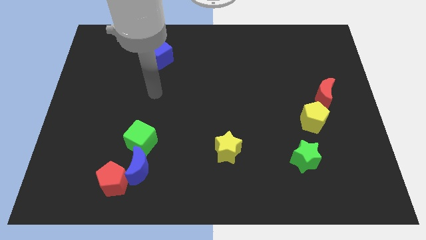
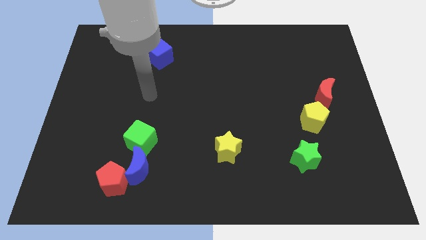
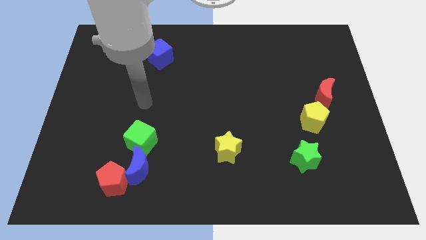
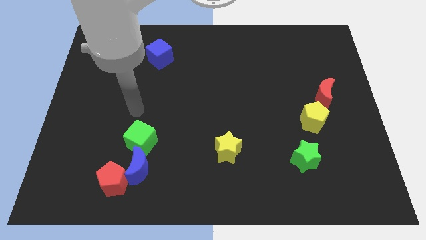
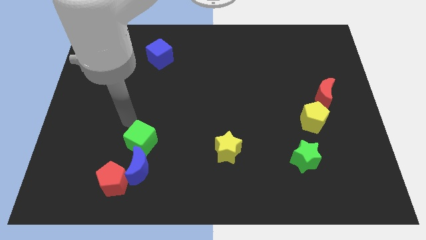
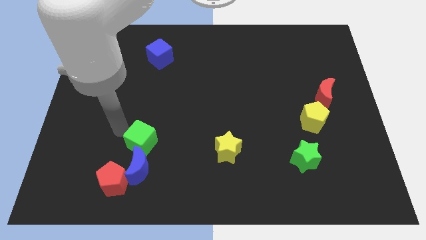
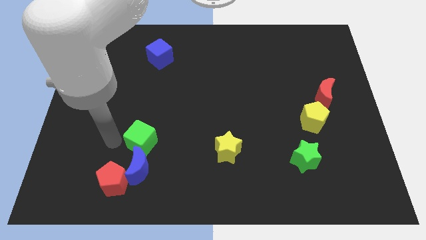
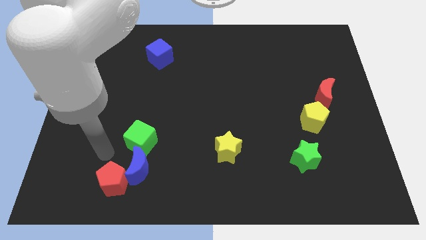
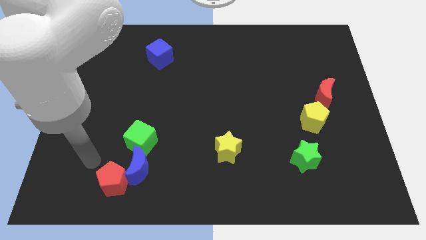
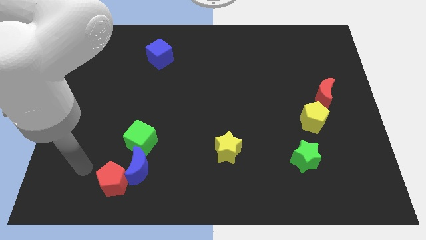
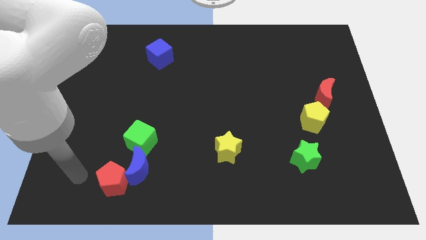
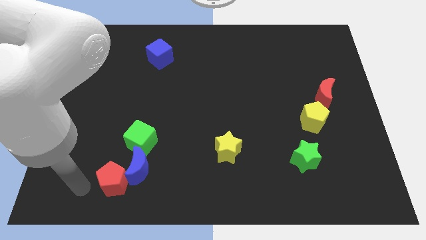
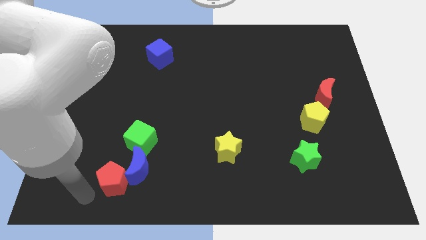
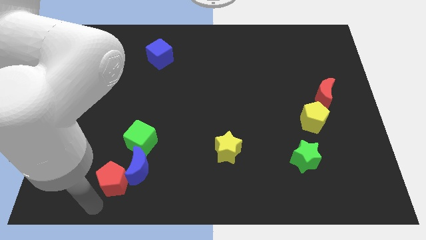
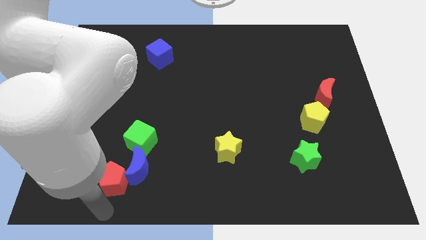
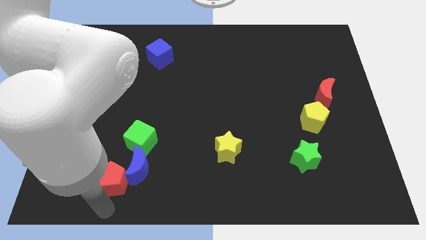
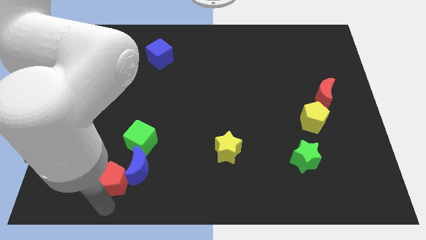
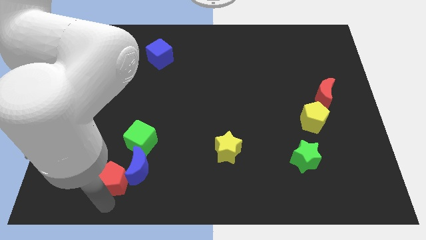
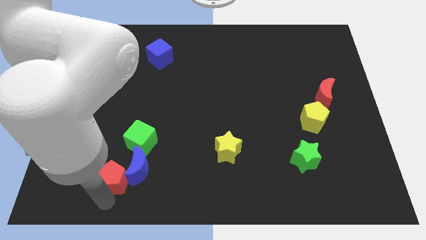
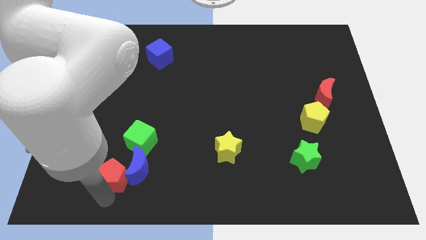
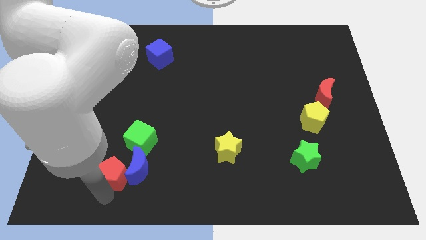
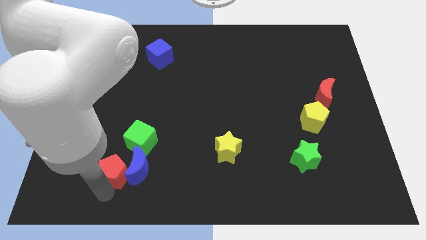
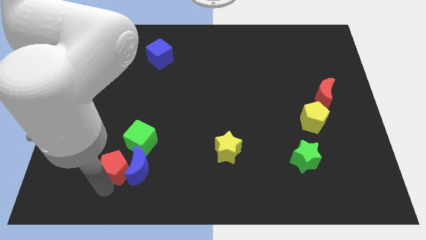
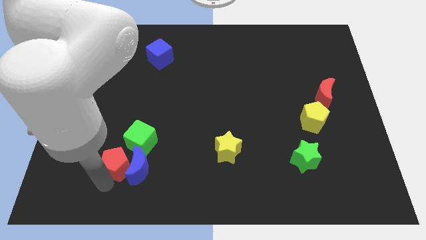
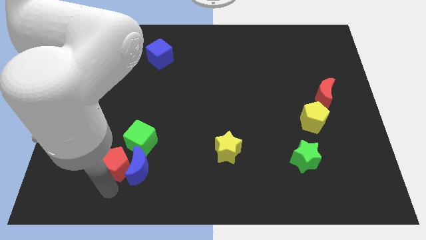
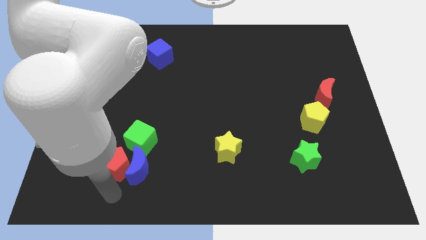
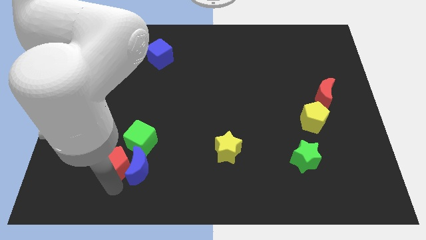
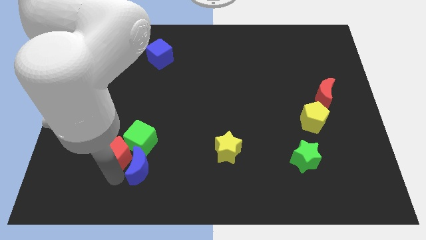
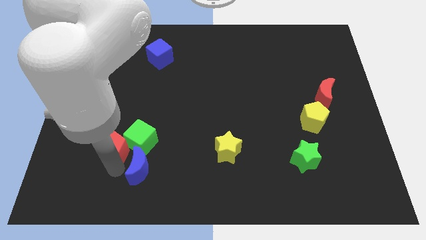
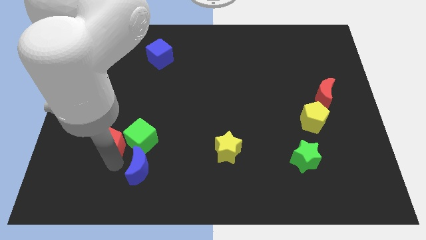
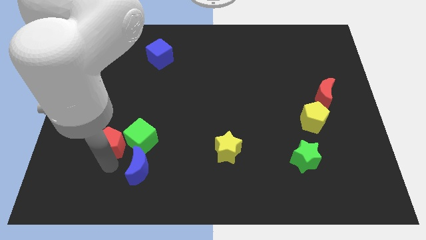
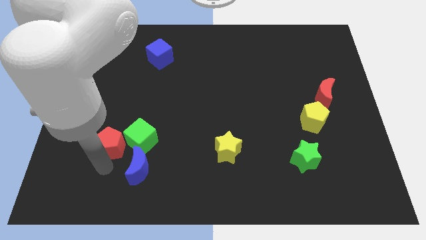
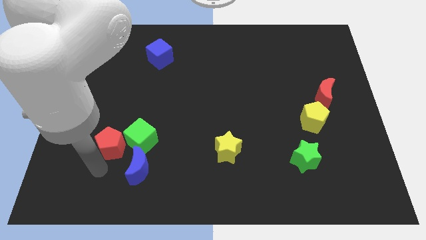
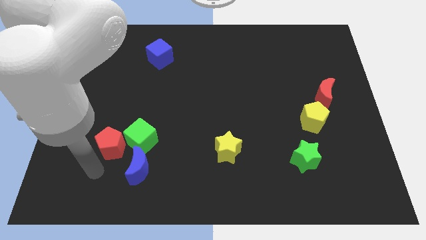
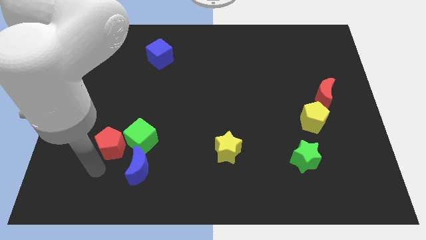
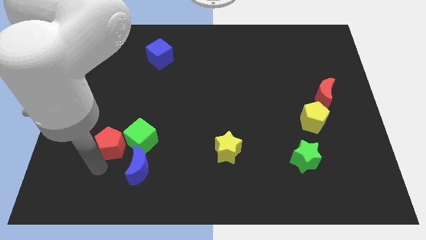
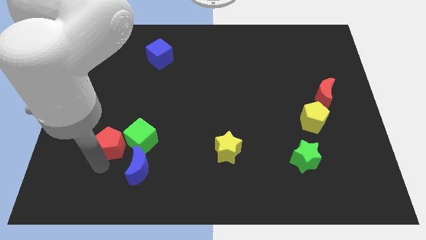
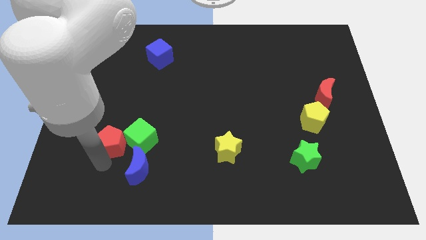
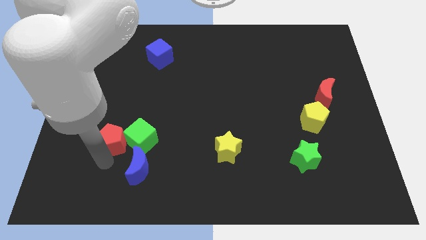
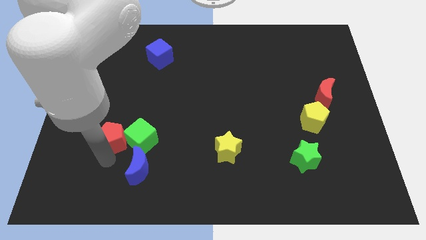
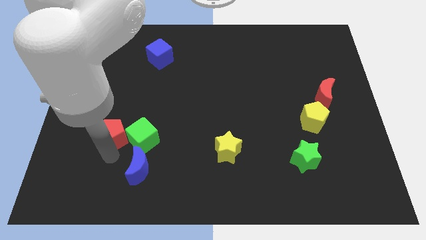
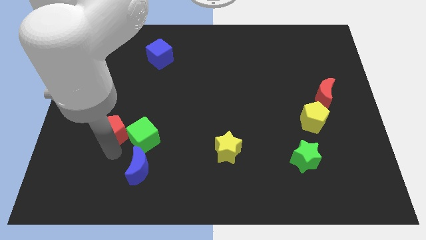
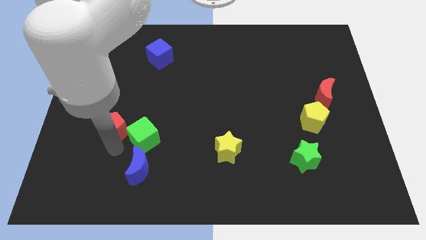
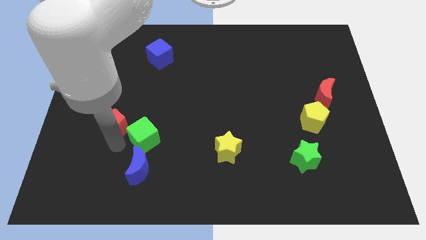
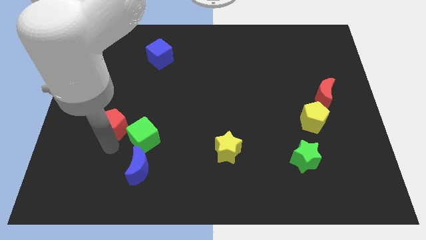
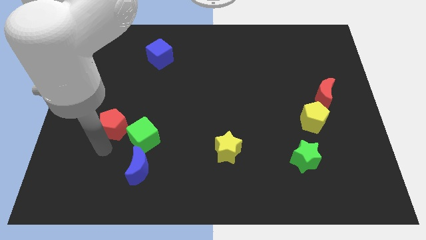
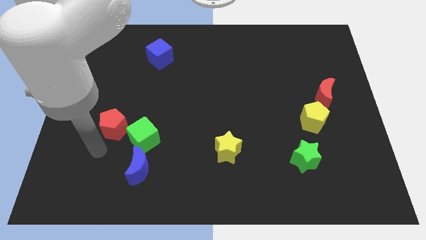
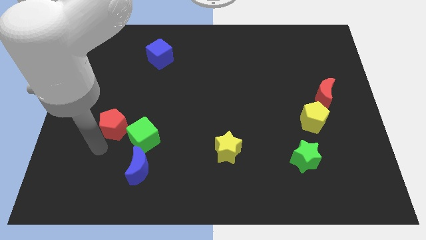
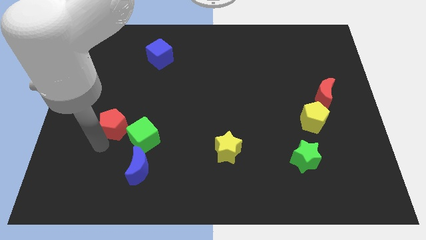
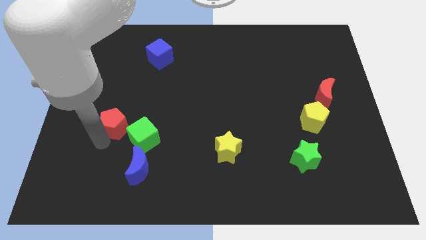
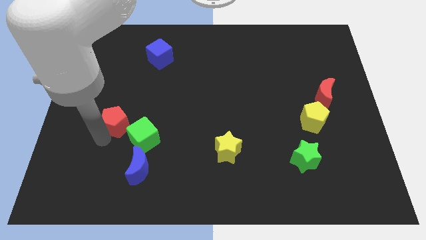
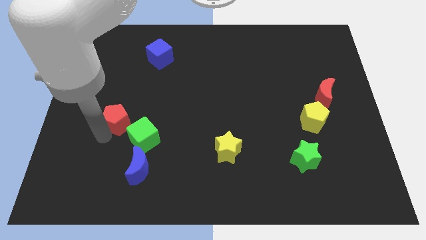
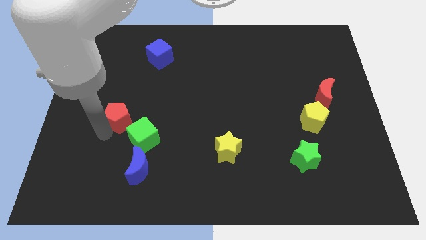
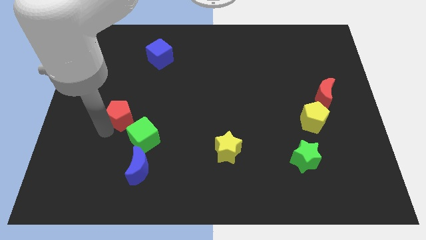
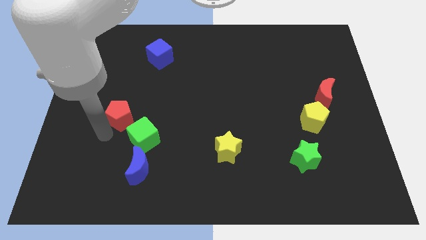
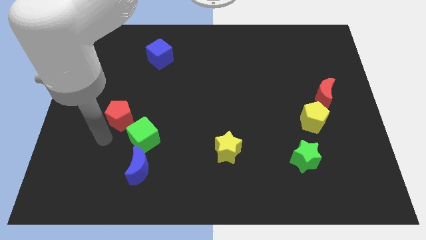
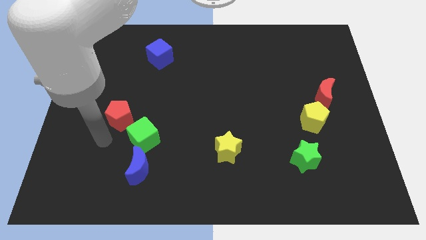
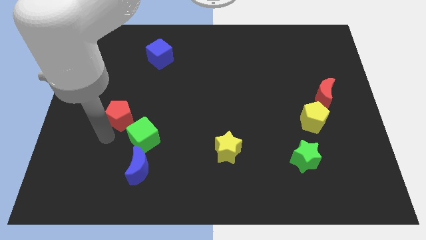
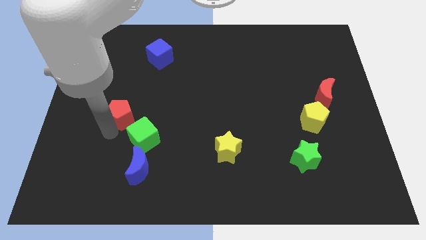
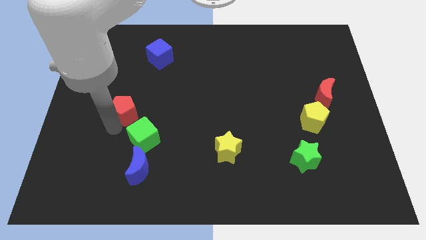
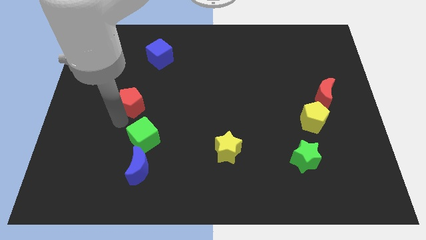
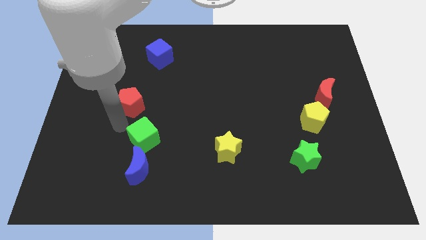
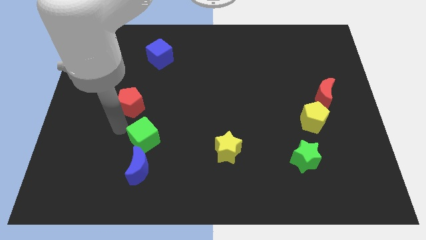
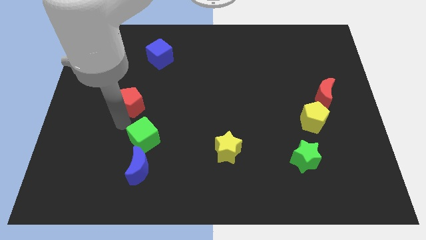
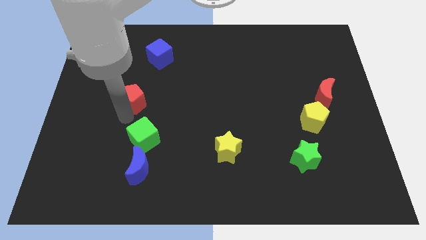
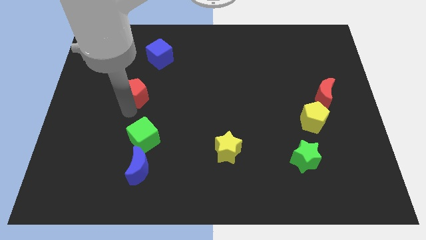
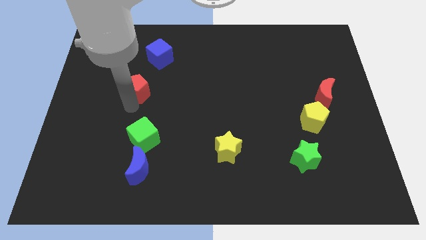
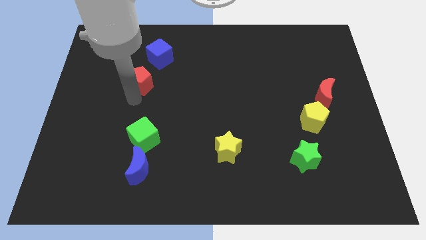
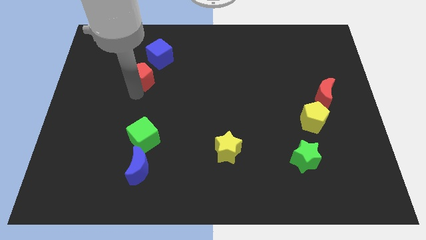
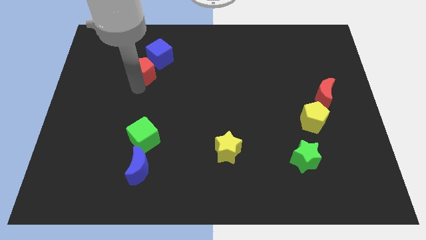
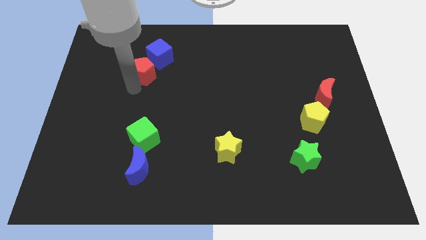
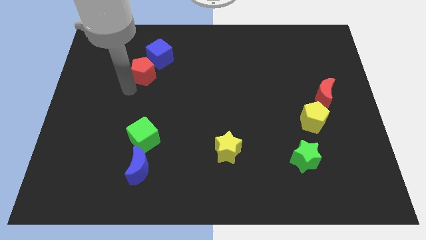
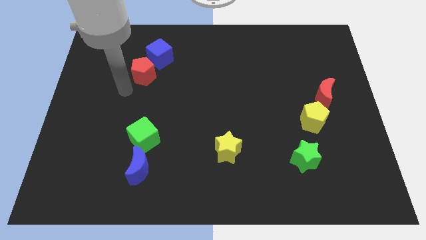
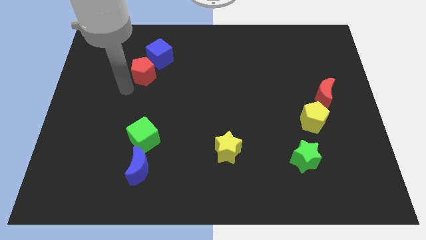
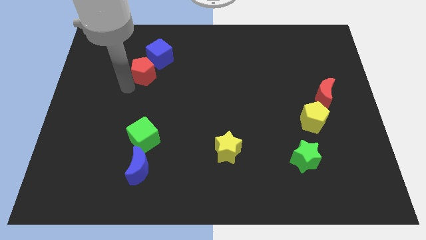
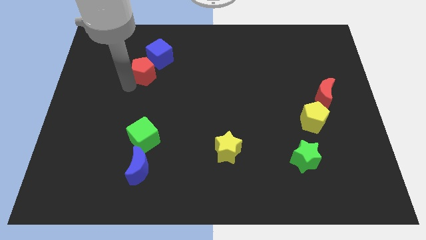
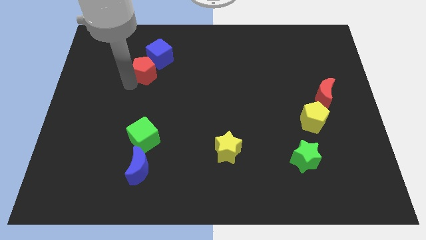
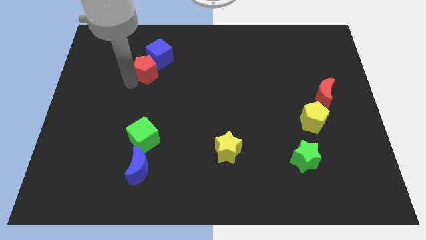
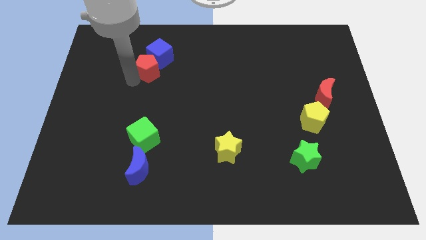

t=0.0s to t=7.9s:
put the red pentagon to the blue cube
